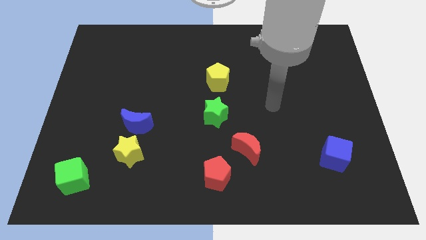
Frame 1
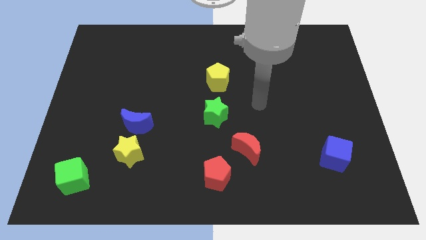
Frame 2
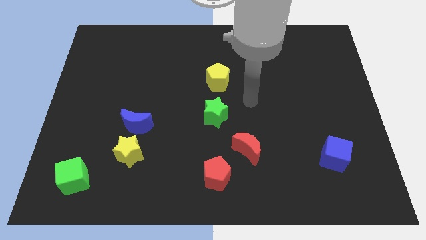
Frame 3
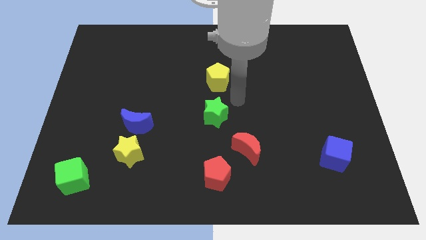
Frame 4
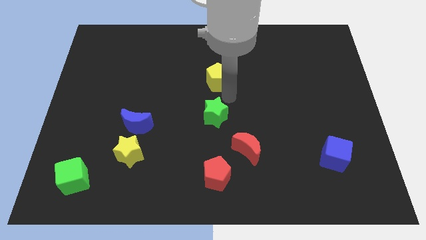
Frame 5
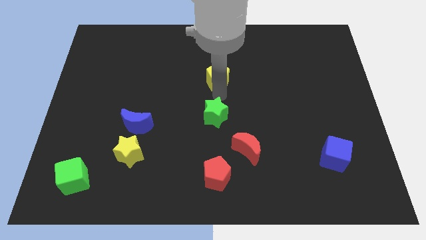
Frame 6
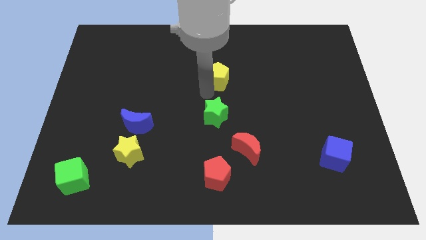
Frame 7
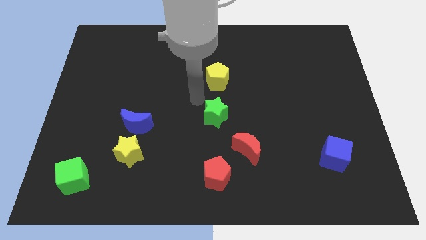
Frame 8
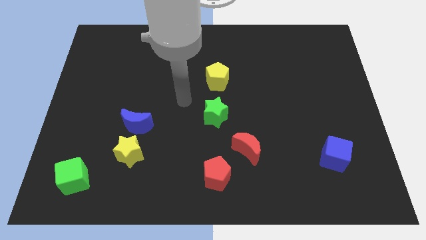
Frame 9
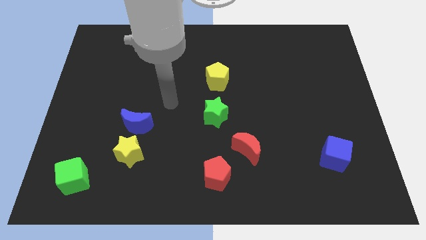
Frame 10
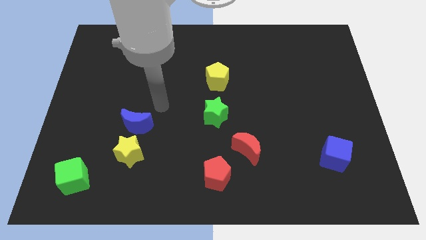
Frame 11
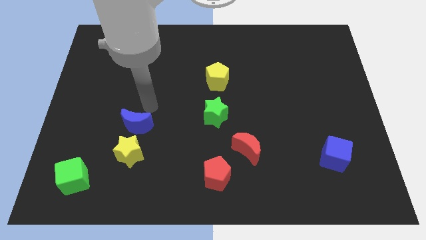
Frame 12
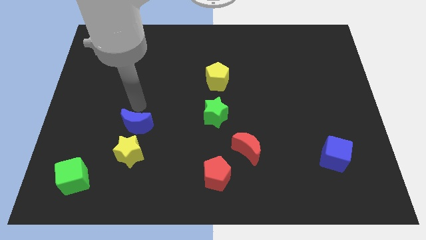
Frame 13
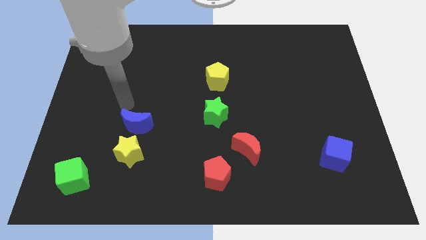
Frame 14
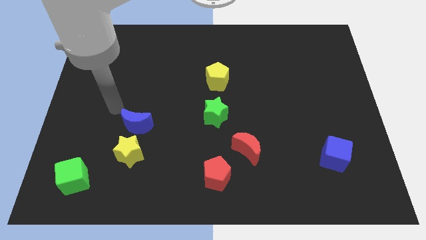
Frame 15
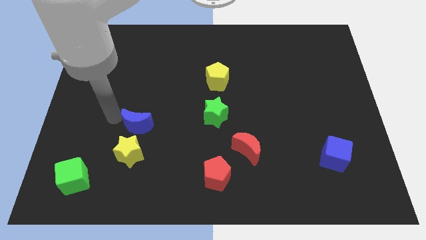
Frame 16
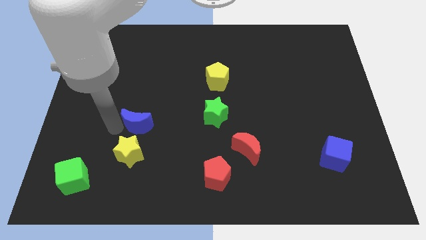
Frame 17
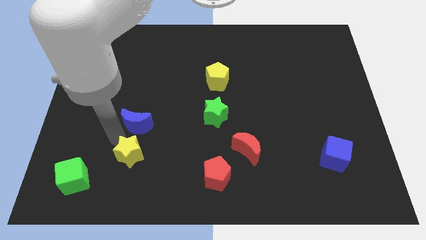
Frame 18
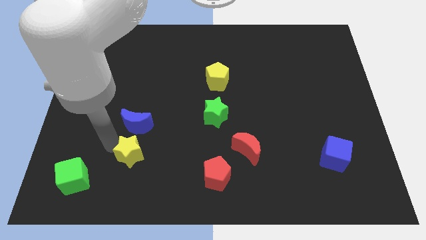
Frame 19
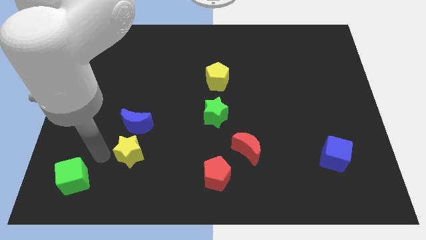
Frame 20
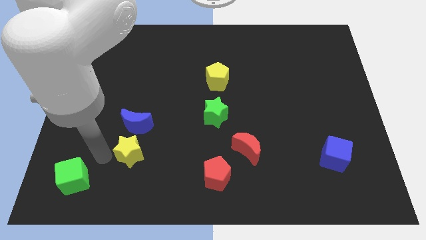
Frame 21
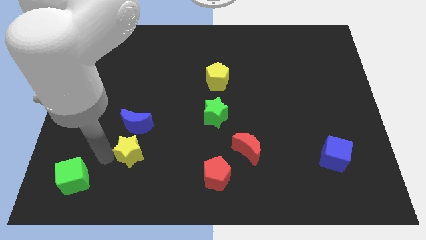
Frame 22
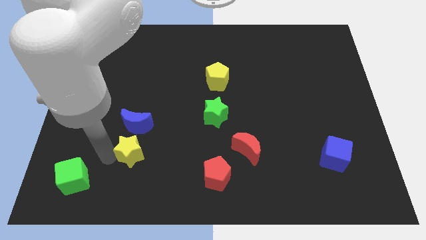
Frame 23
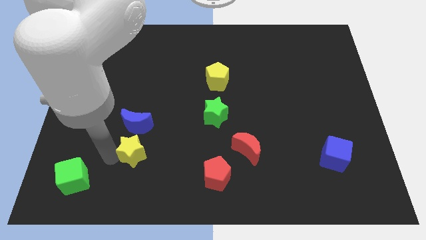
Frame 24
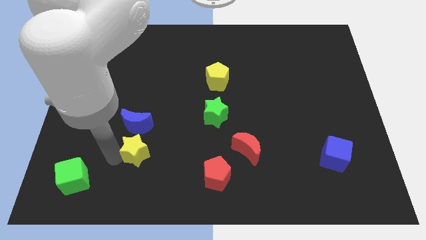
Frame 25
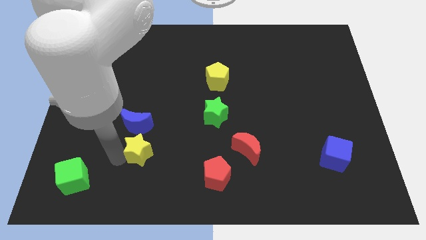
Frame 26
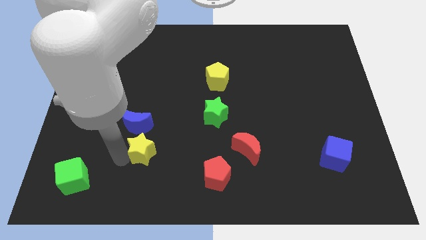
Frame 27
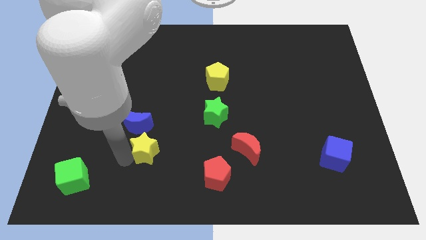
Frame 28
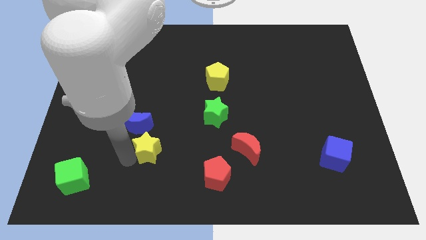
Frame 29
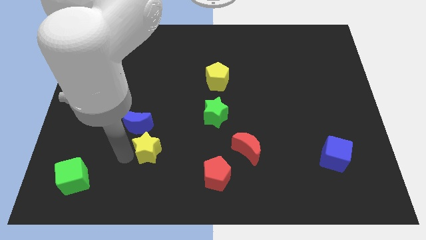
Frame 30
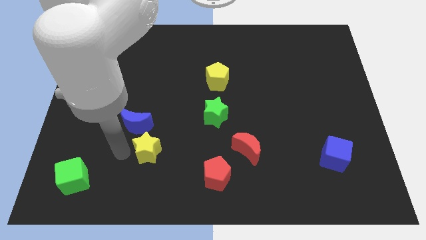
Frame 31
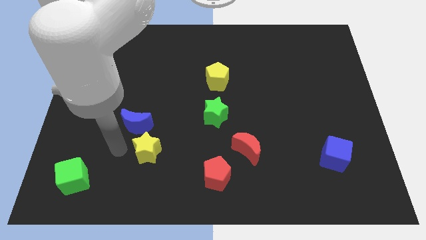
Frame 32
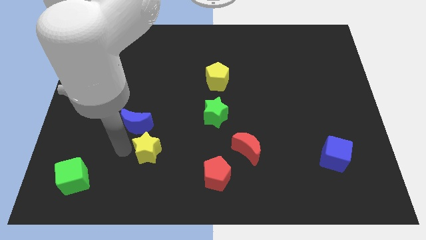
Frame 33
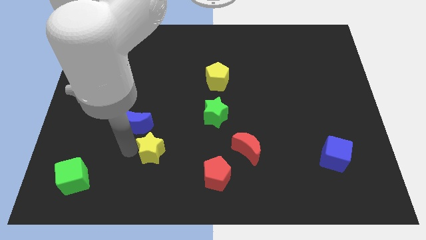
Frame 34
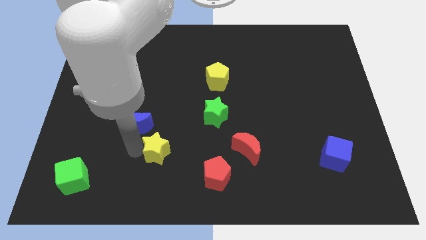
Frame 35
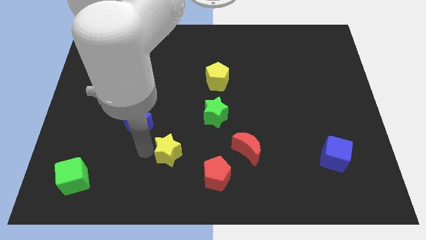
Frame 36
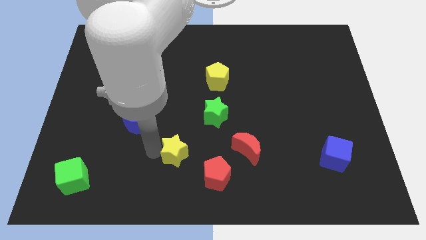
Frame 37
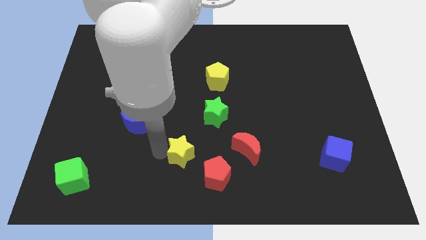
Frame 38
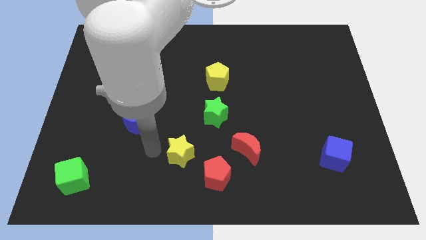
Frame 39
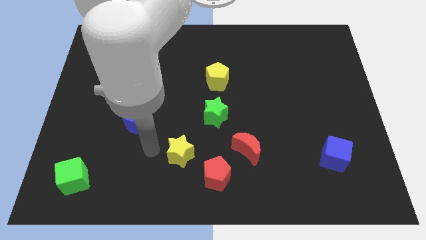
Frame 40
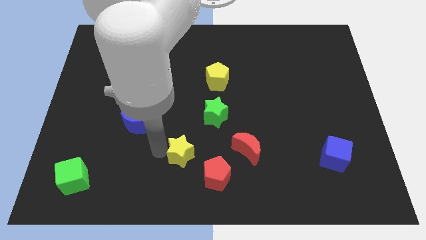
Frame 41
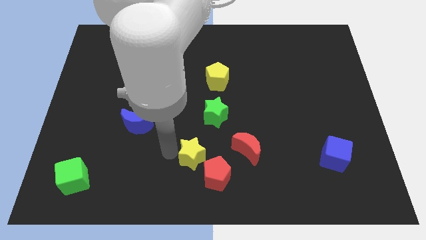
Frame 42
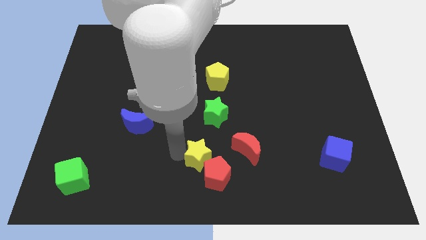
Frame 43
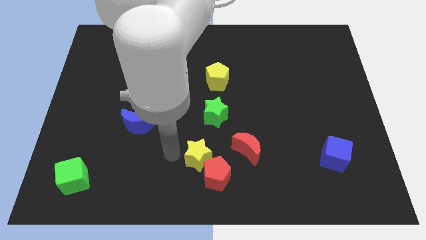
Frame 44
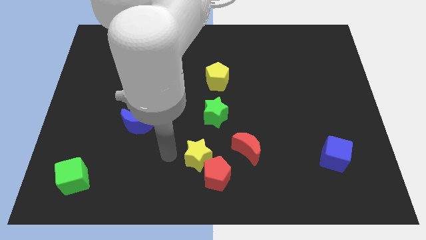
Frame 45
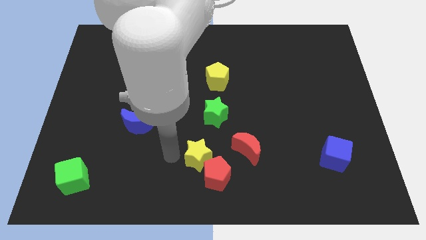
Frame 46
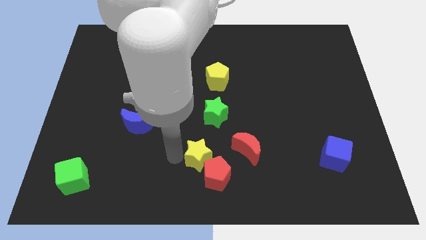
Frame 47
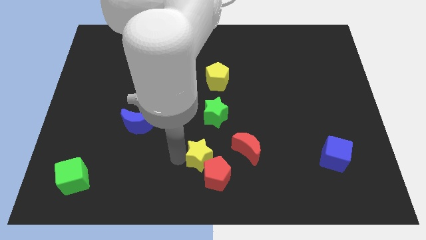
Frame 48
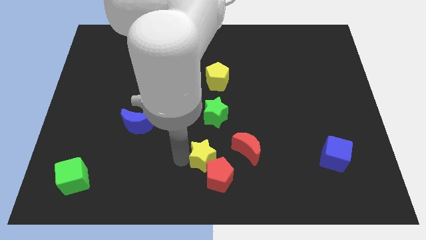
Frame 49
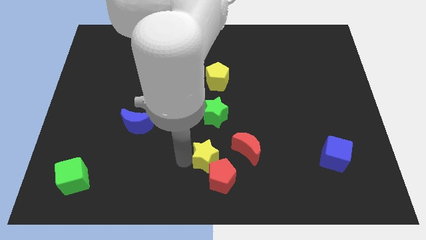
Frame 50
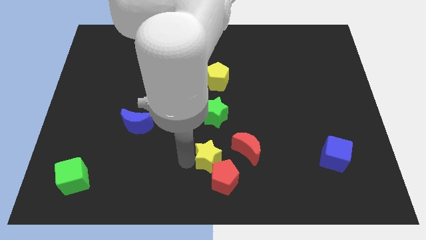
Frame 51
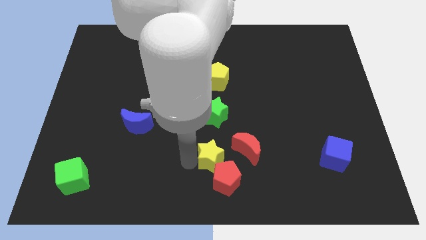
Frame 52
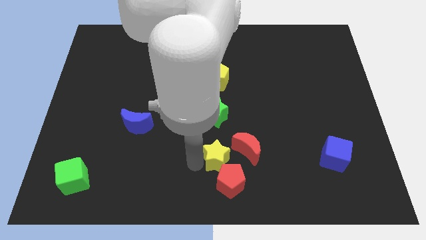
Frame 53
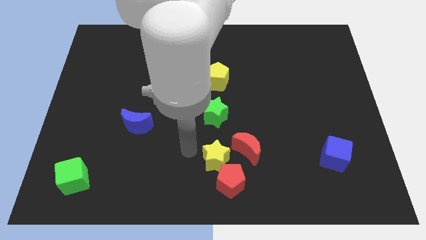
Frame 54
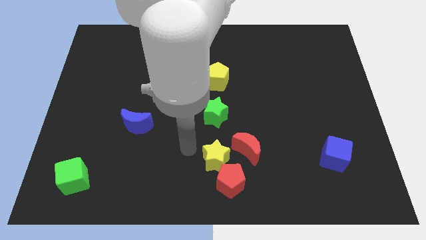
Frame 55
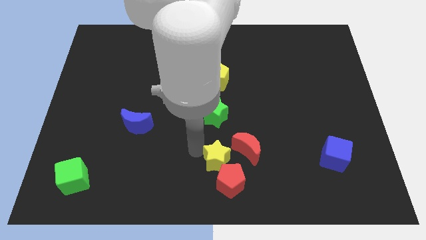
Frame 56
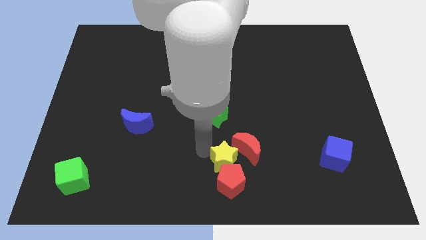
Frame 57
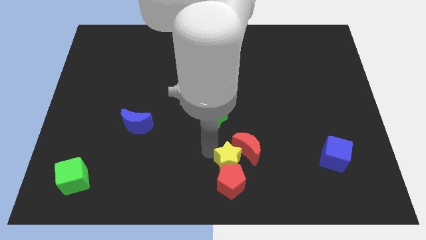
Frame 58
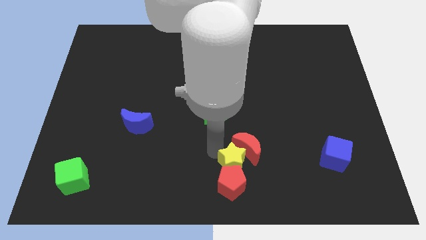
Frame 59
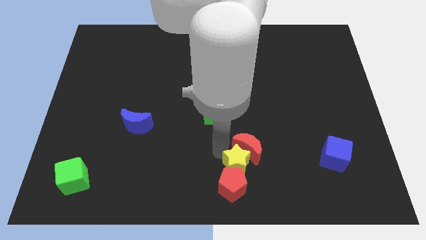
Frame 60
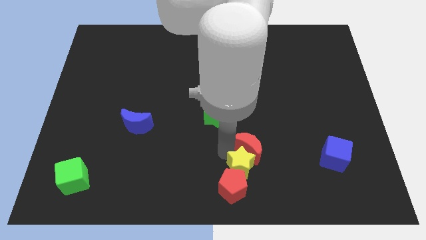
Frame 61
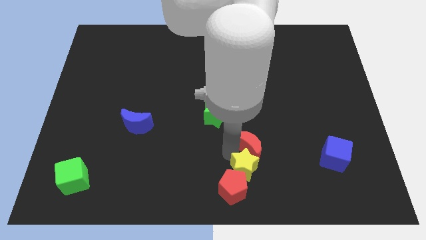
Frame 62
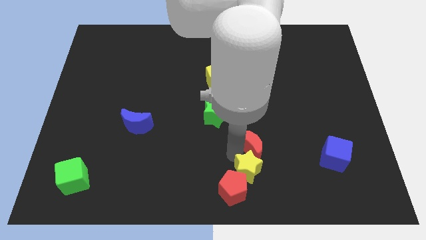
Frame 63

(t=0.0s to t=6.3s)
put the yellow star to the right of the red pentagon

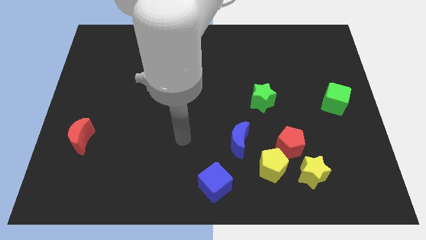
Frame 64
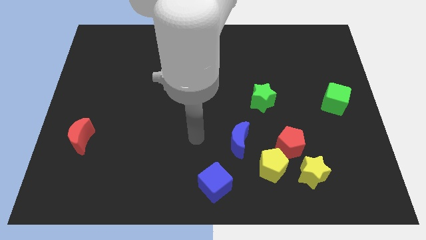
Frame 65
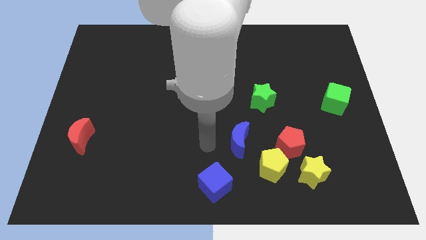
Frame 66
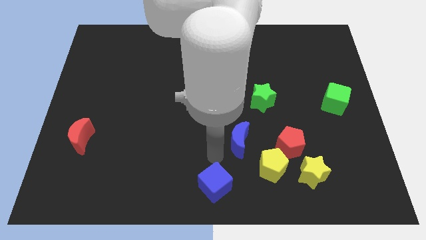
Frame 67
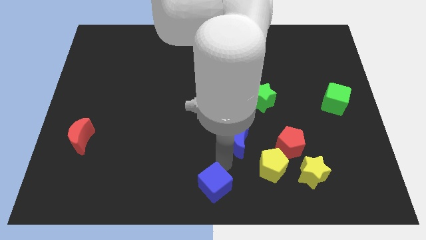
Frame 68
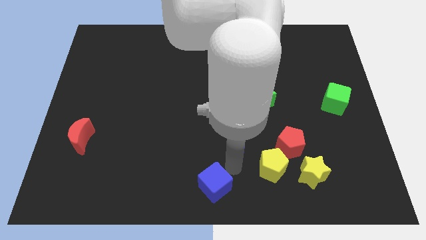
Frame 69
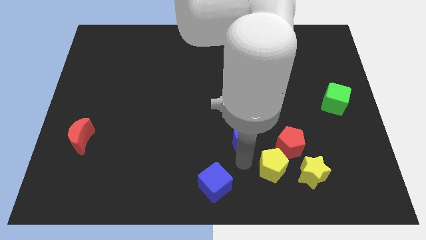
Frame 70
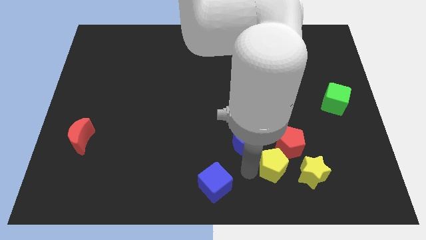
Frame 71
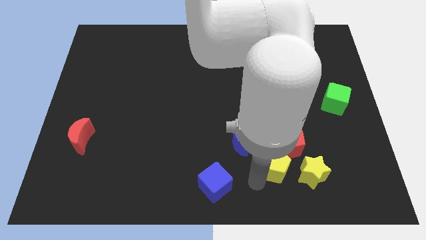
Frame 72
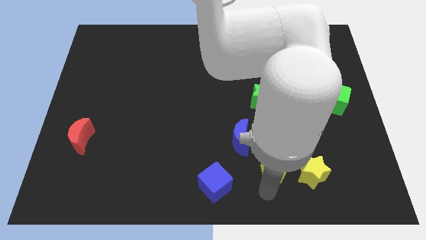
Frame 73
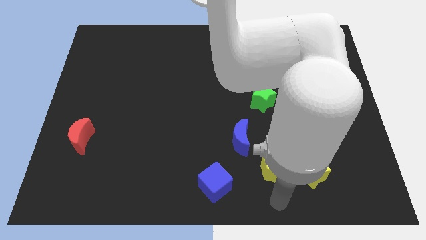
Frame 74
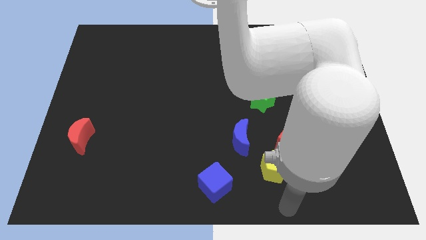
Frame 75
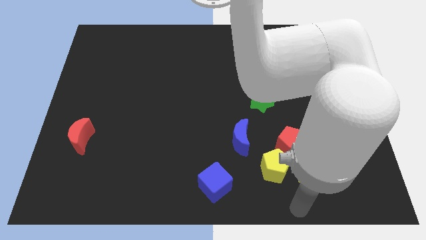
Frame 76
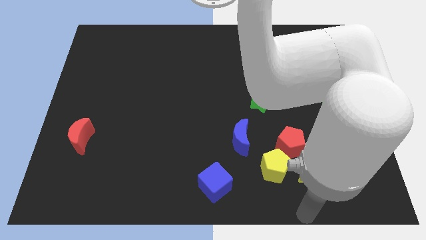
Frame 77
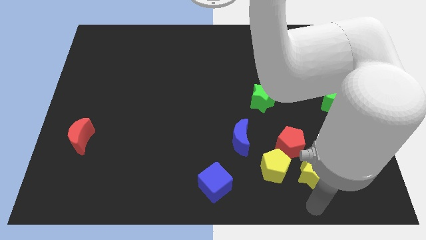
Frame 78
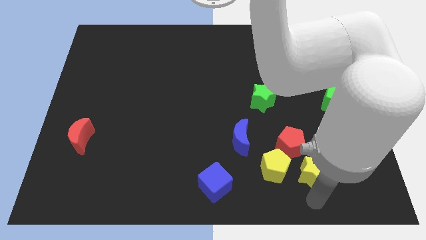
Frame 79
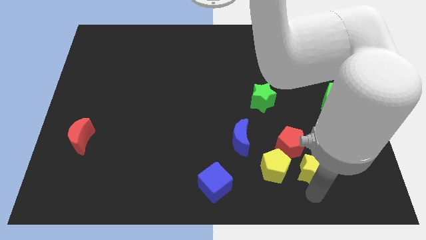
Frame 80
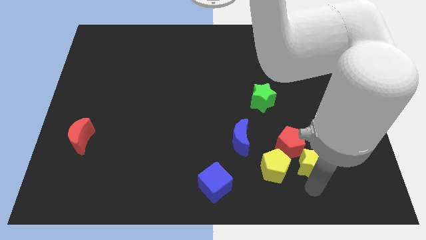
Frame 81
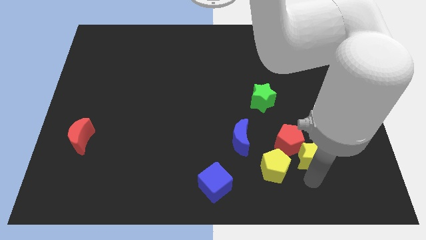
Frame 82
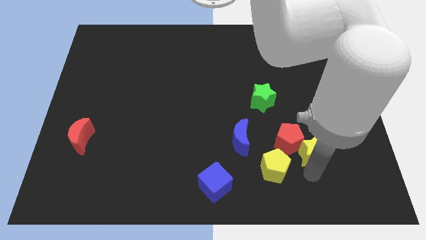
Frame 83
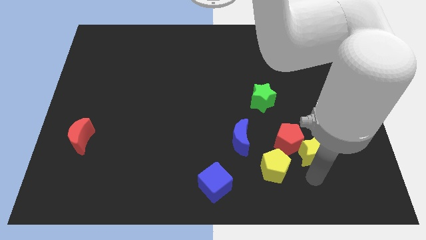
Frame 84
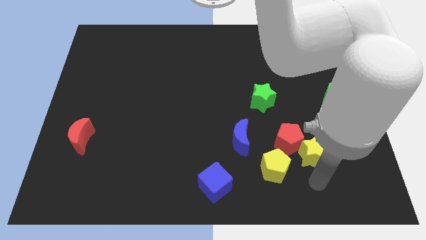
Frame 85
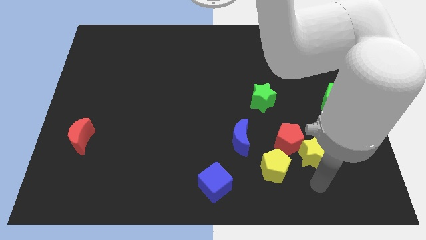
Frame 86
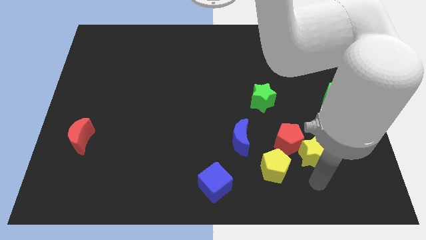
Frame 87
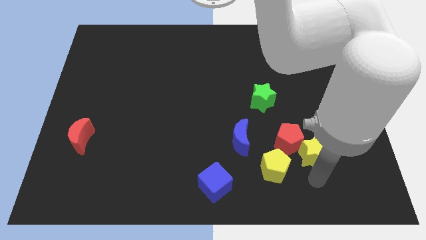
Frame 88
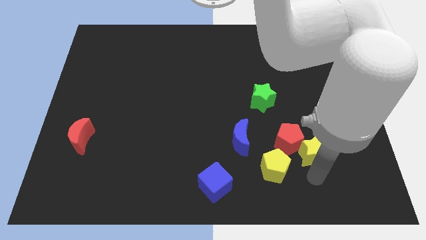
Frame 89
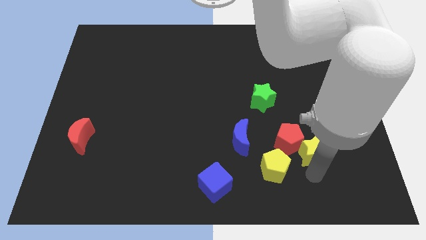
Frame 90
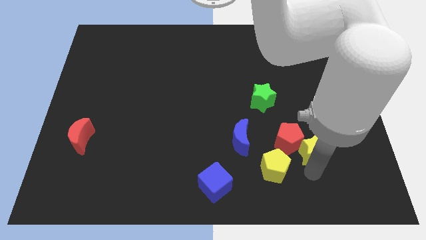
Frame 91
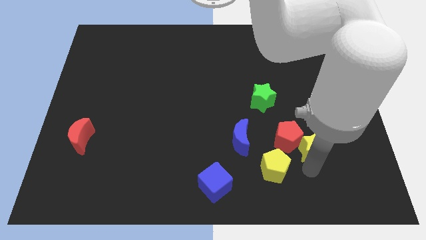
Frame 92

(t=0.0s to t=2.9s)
put the yellow star right of the blue moon
